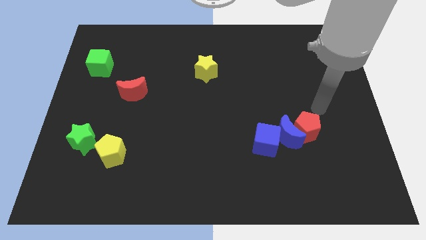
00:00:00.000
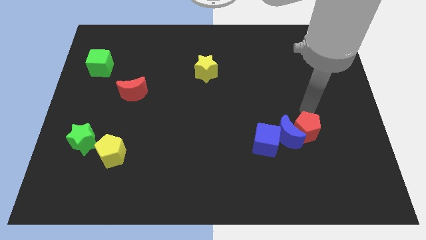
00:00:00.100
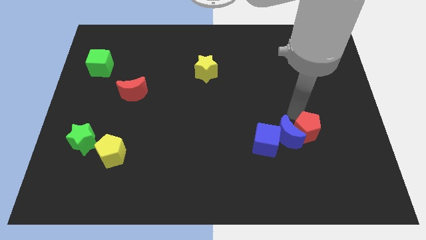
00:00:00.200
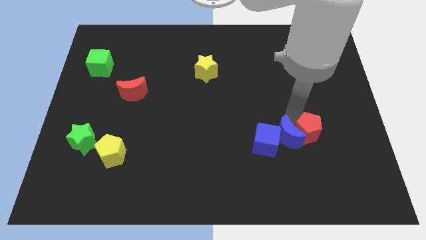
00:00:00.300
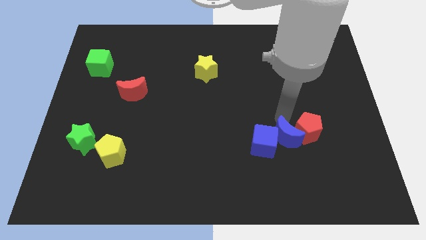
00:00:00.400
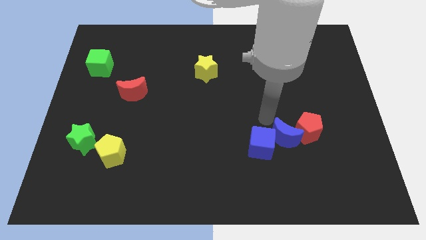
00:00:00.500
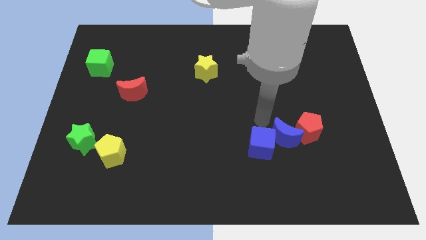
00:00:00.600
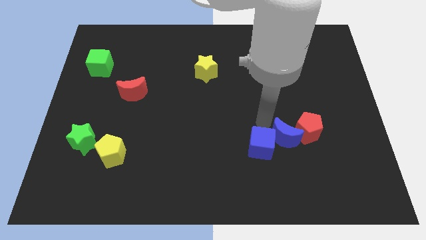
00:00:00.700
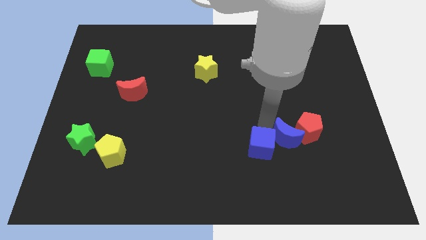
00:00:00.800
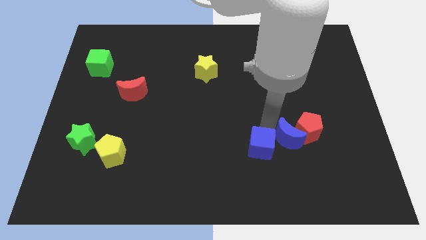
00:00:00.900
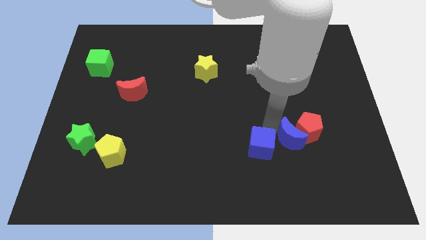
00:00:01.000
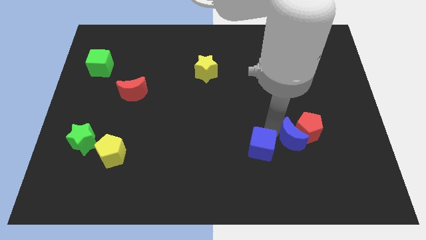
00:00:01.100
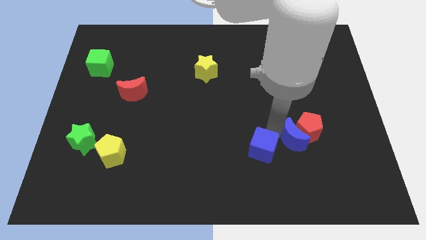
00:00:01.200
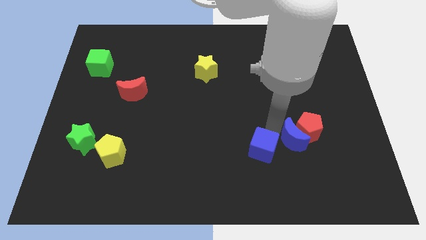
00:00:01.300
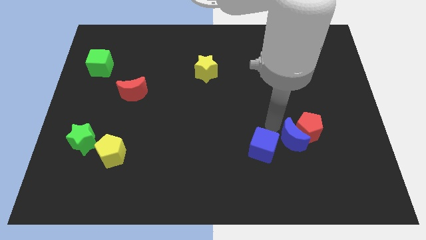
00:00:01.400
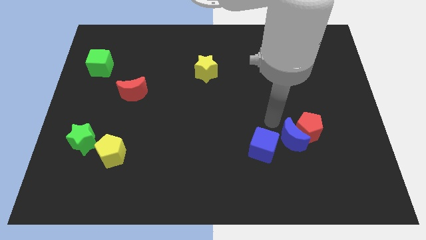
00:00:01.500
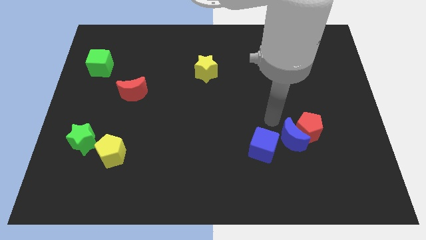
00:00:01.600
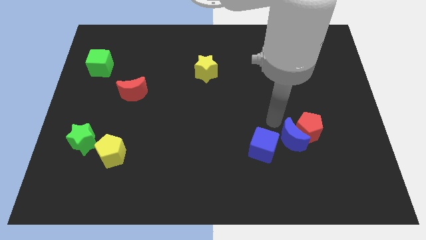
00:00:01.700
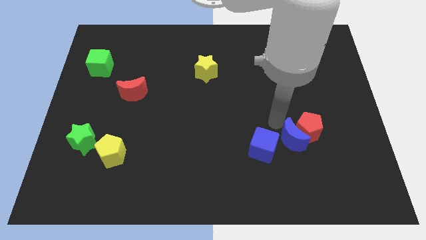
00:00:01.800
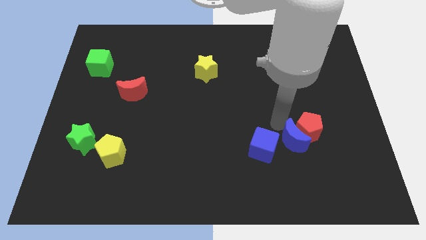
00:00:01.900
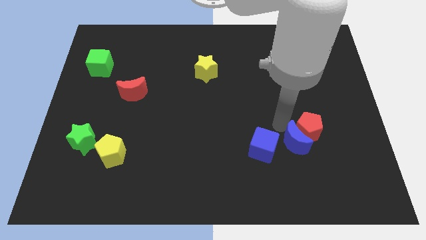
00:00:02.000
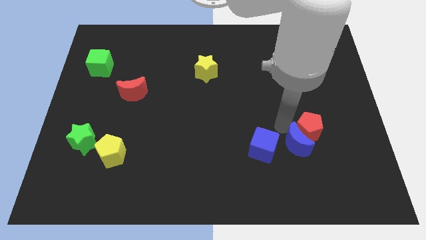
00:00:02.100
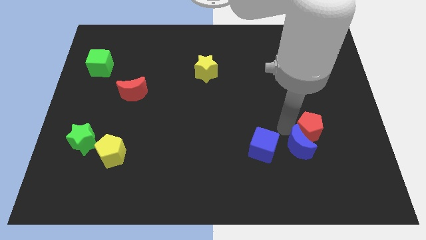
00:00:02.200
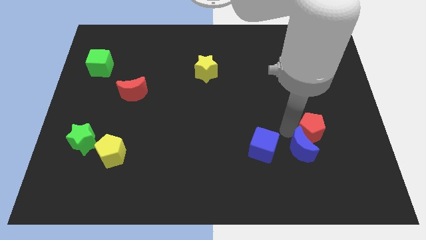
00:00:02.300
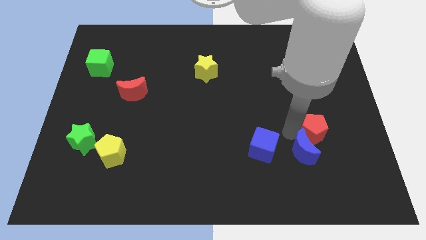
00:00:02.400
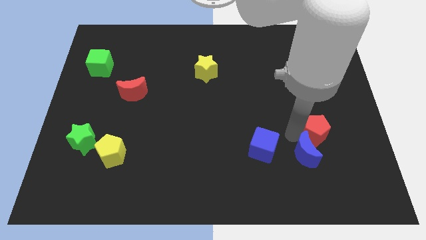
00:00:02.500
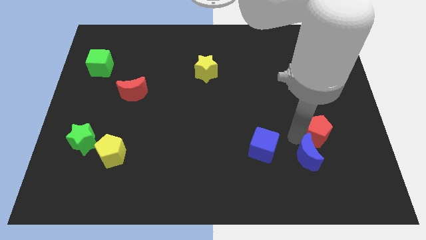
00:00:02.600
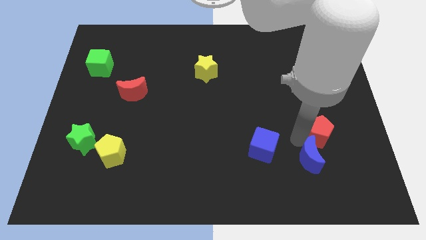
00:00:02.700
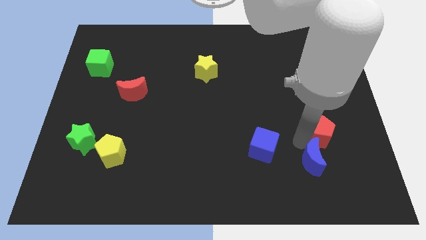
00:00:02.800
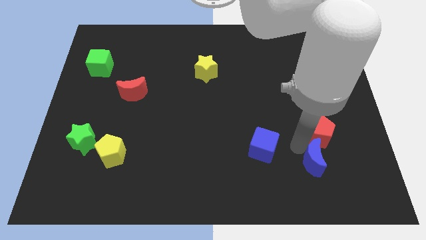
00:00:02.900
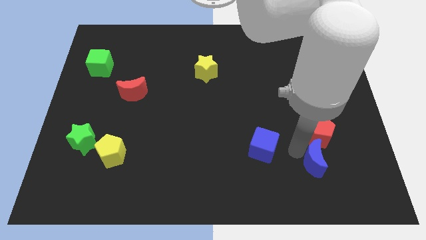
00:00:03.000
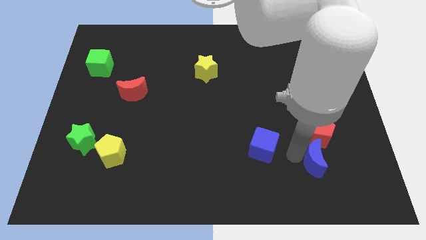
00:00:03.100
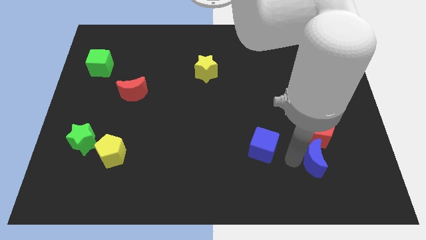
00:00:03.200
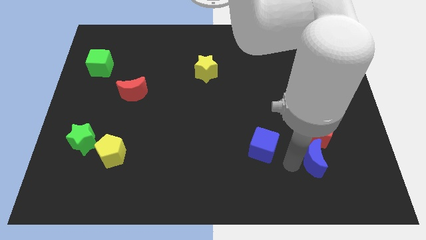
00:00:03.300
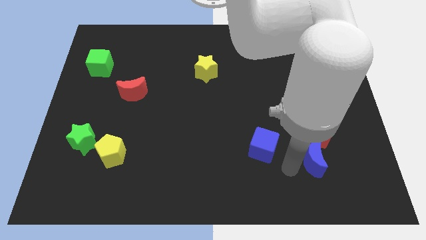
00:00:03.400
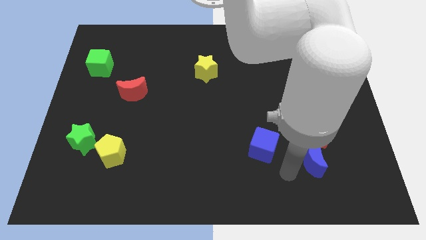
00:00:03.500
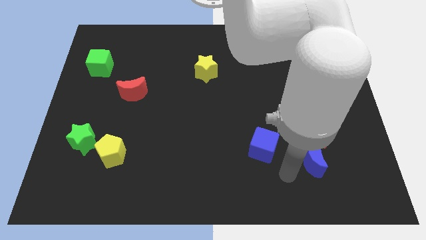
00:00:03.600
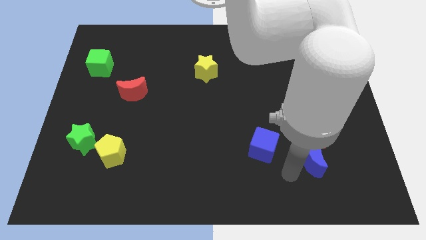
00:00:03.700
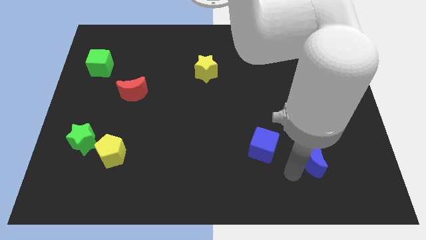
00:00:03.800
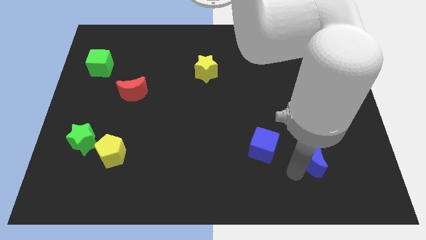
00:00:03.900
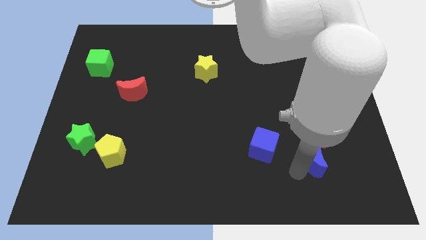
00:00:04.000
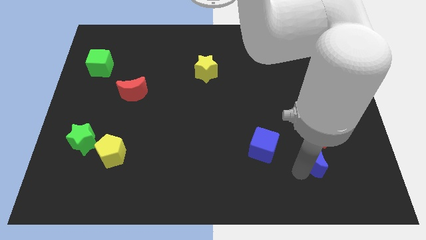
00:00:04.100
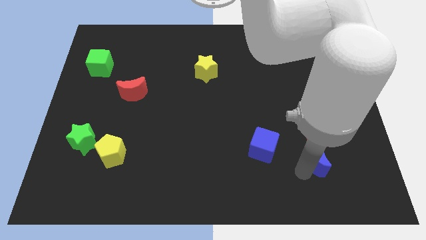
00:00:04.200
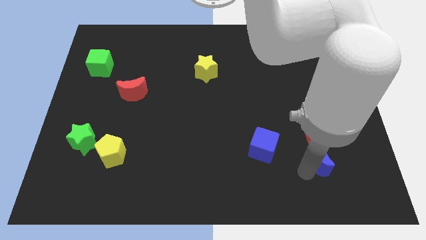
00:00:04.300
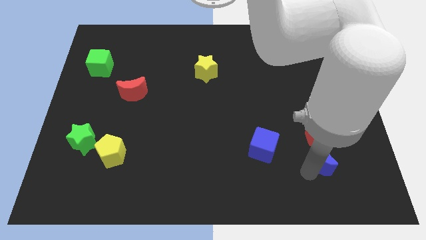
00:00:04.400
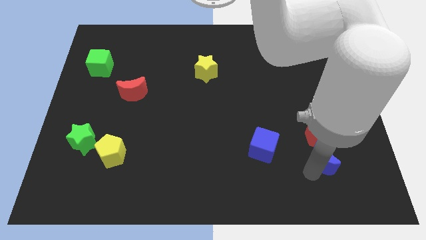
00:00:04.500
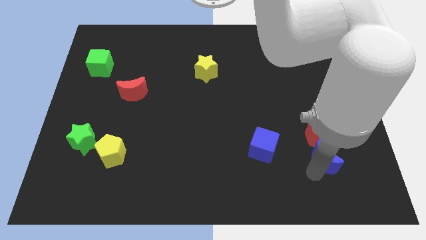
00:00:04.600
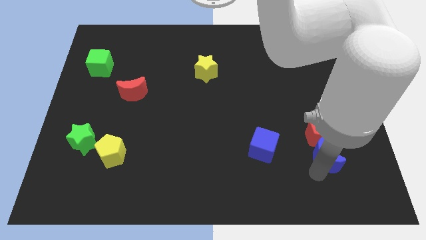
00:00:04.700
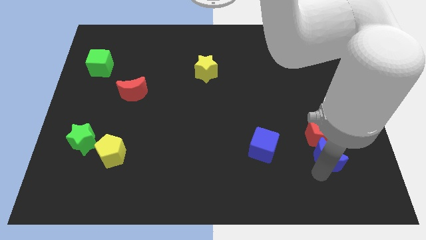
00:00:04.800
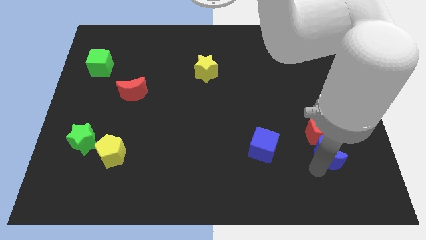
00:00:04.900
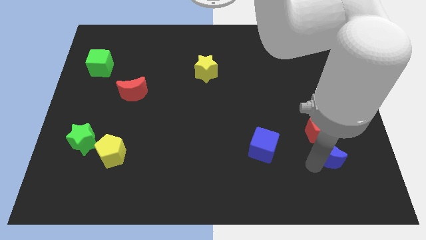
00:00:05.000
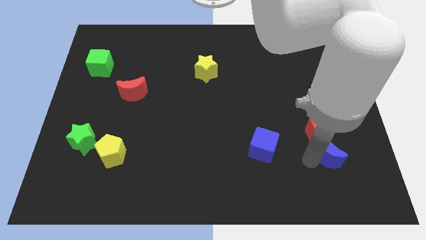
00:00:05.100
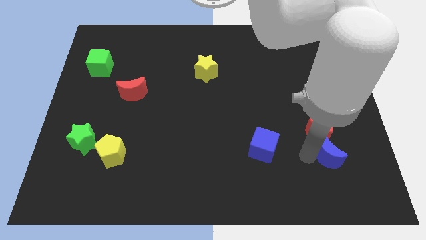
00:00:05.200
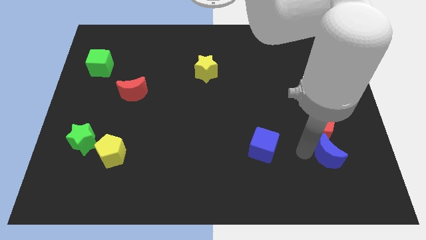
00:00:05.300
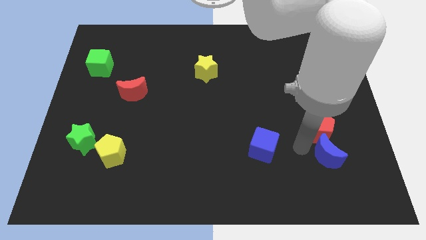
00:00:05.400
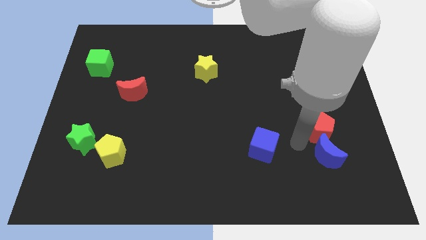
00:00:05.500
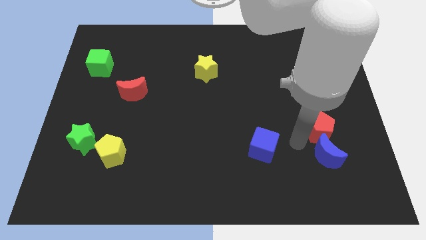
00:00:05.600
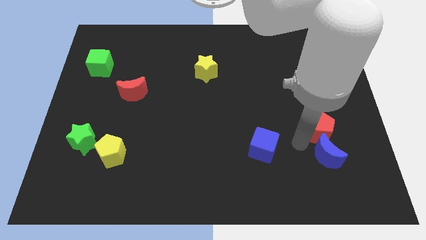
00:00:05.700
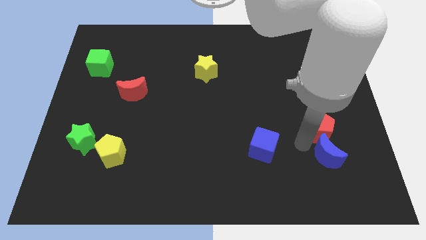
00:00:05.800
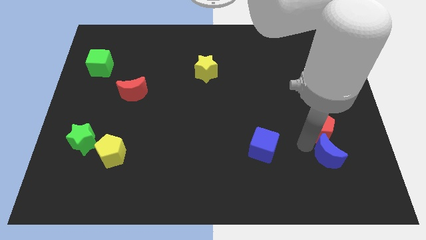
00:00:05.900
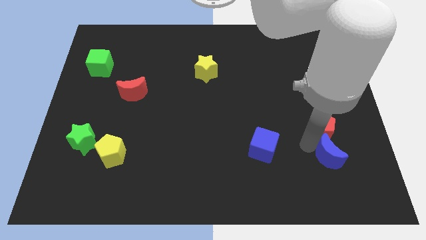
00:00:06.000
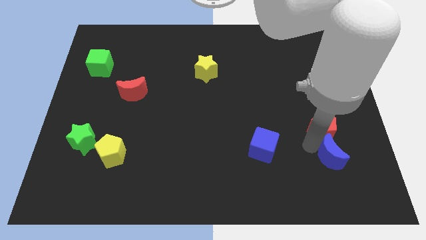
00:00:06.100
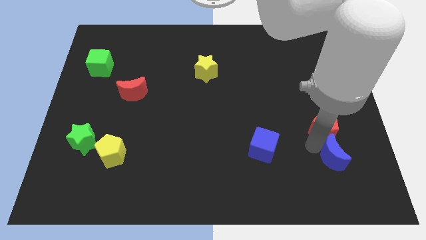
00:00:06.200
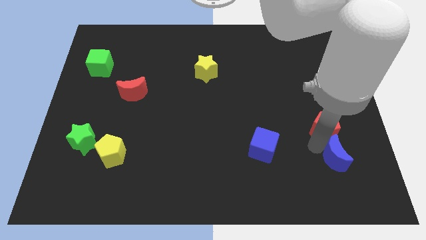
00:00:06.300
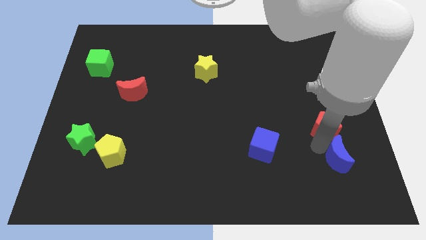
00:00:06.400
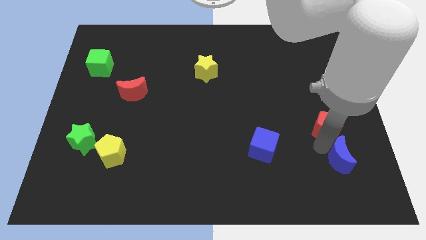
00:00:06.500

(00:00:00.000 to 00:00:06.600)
separate the blue moon from the red pentagon and blue cube

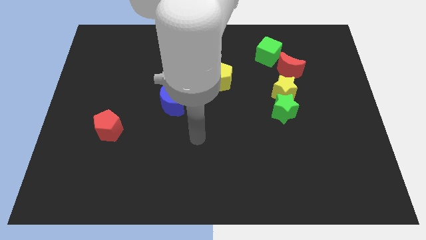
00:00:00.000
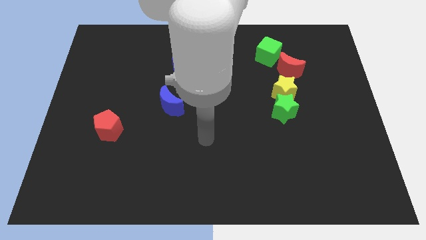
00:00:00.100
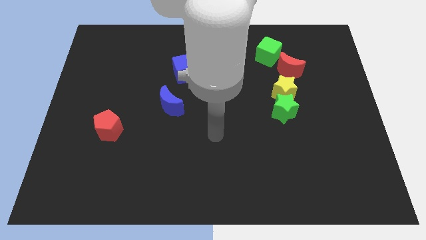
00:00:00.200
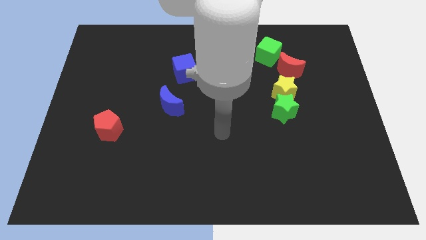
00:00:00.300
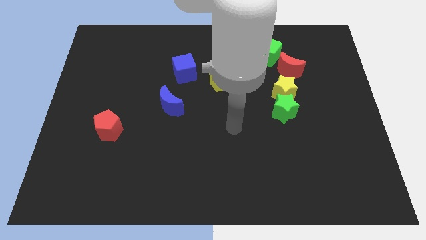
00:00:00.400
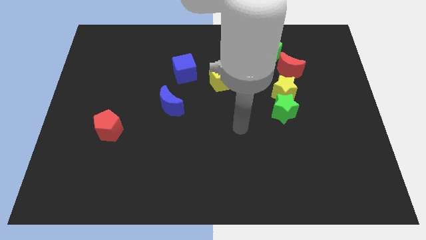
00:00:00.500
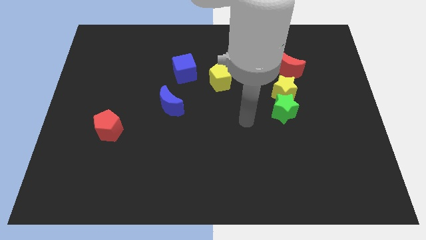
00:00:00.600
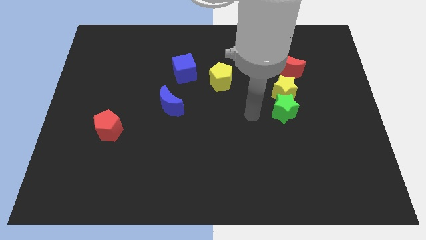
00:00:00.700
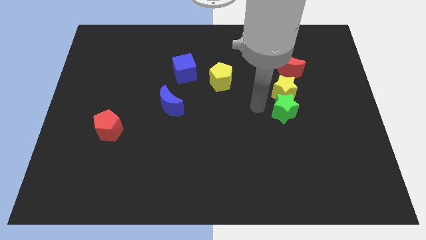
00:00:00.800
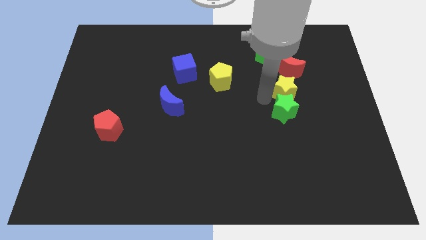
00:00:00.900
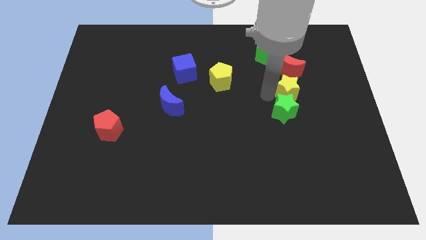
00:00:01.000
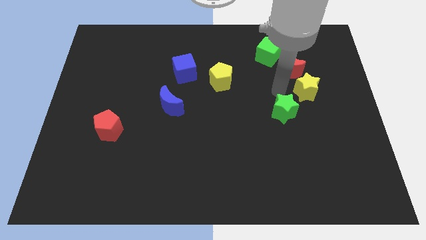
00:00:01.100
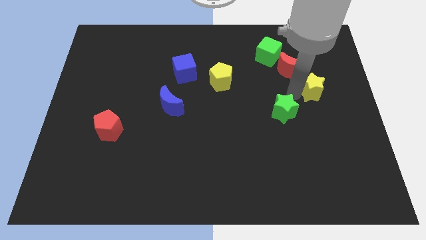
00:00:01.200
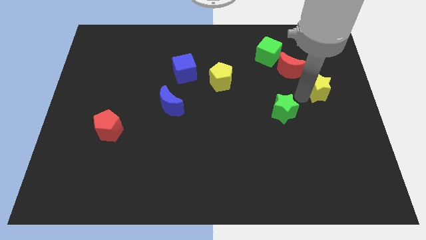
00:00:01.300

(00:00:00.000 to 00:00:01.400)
pull the green star apart from the yellow star

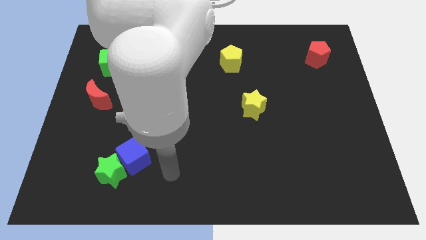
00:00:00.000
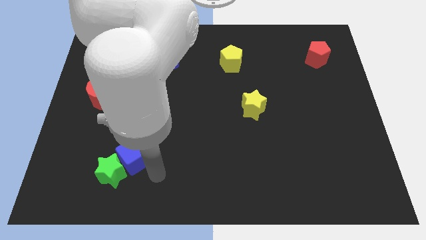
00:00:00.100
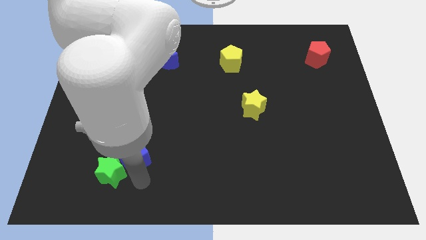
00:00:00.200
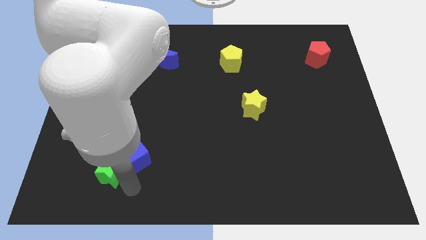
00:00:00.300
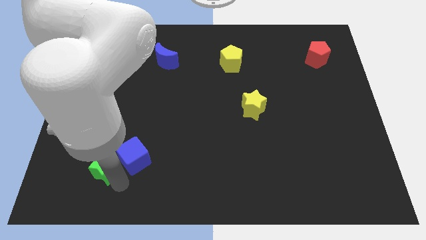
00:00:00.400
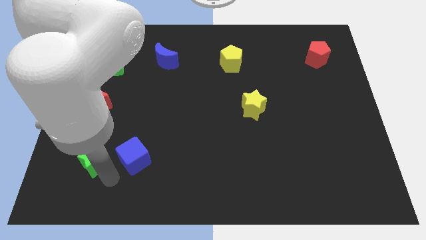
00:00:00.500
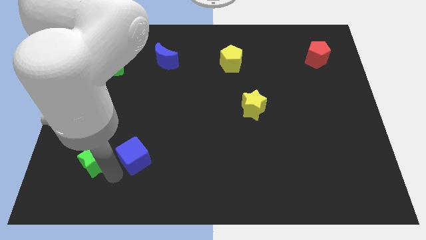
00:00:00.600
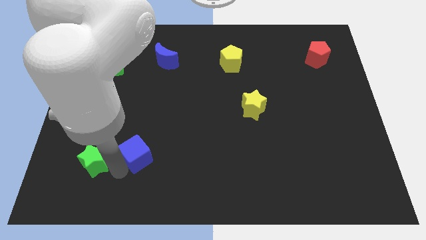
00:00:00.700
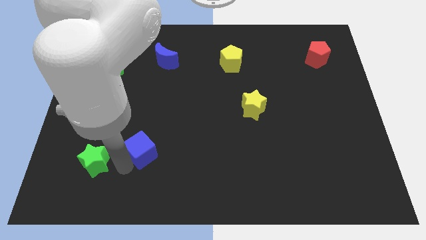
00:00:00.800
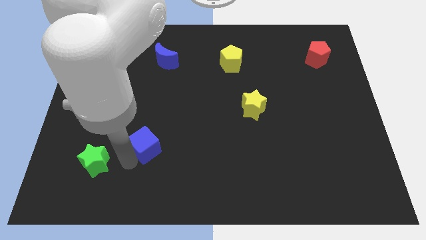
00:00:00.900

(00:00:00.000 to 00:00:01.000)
separate the blue cube from the green star

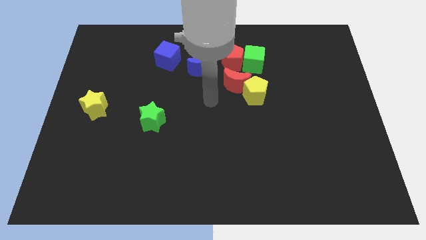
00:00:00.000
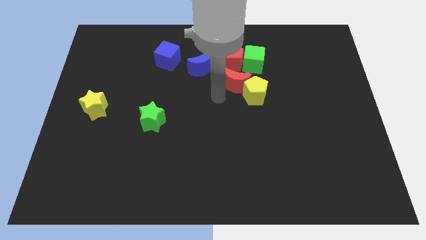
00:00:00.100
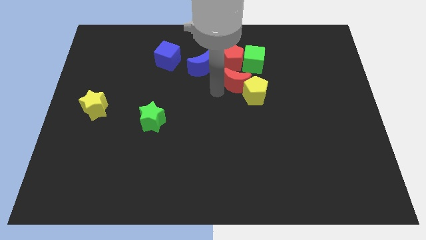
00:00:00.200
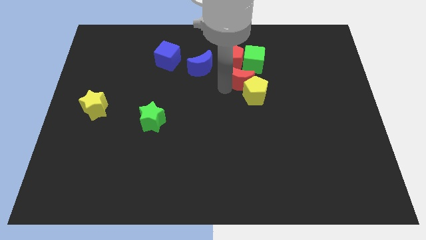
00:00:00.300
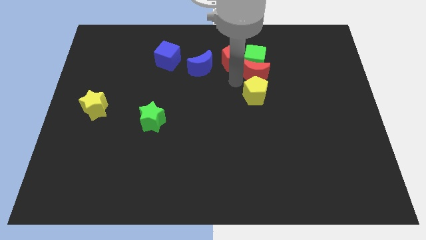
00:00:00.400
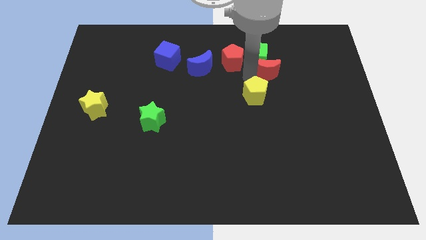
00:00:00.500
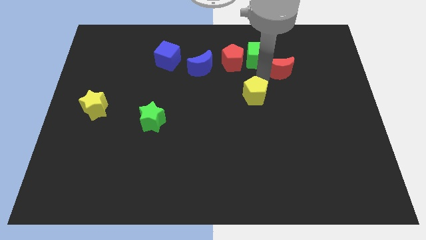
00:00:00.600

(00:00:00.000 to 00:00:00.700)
move the yellow pentagon away from the red moon
